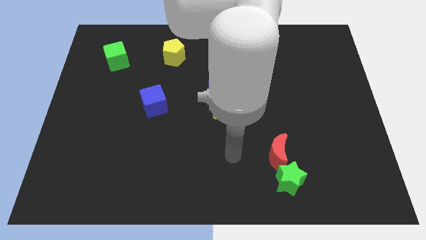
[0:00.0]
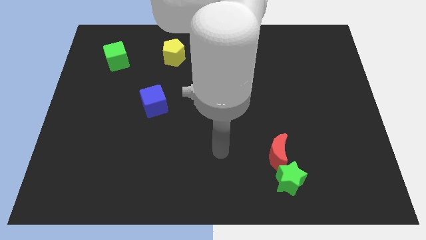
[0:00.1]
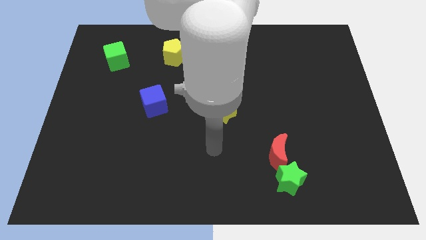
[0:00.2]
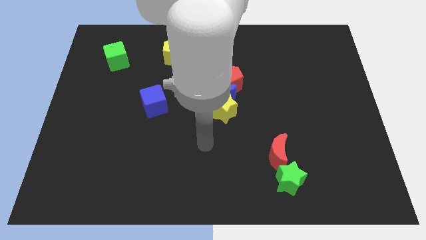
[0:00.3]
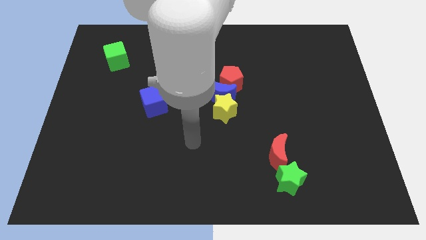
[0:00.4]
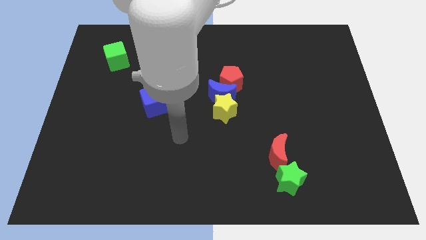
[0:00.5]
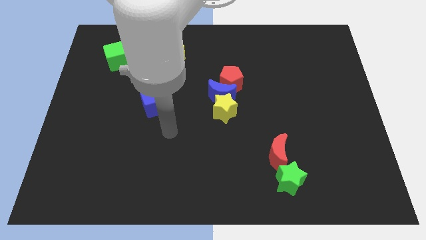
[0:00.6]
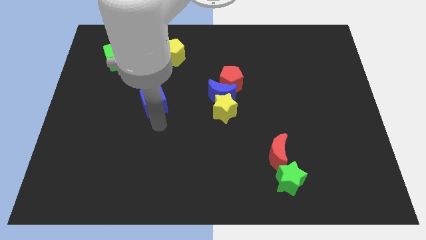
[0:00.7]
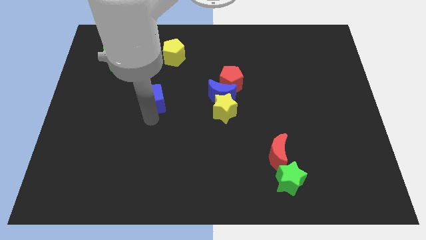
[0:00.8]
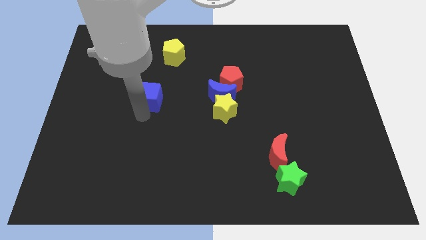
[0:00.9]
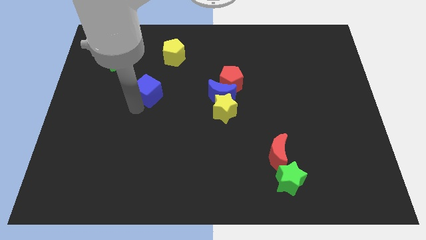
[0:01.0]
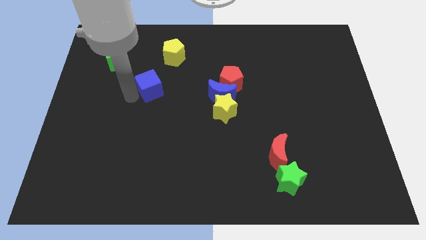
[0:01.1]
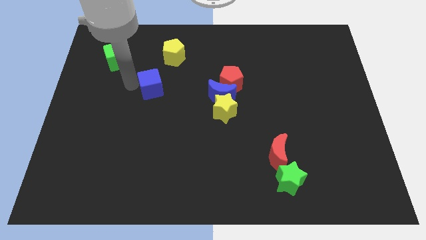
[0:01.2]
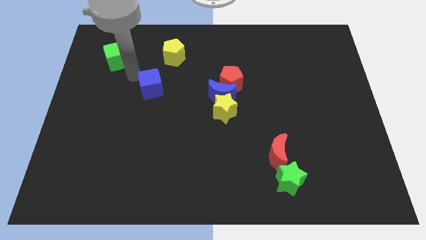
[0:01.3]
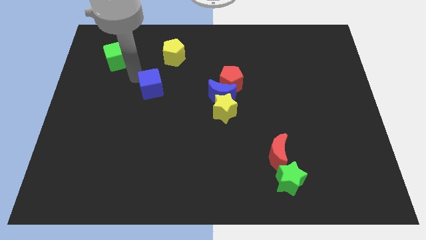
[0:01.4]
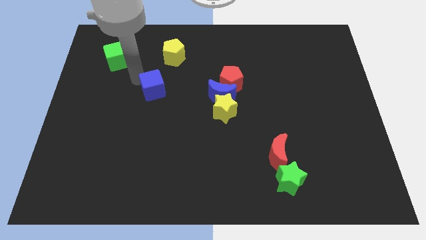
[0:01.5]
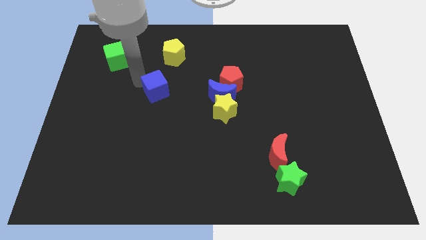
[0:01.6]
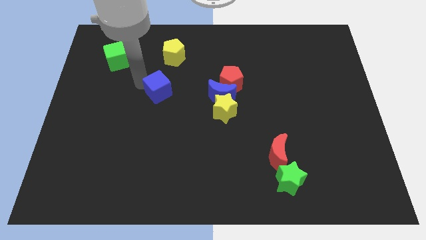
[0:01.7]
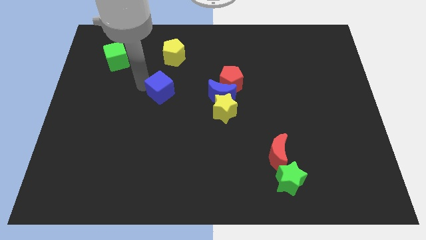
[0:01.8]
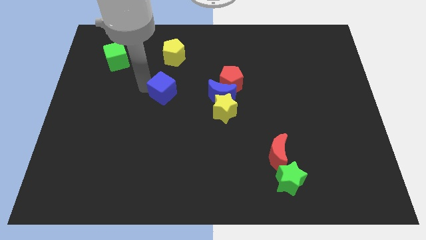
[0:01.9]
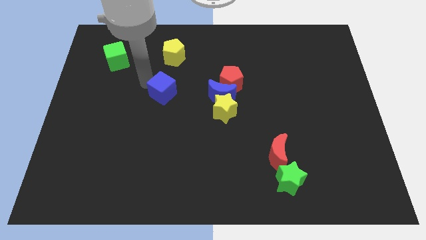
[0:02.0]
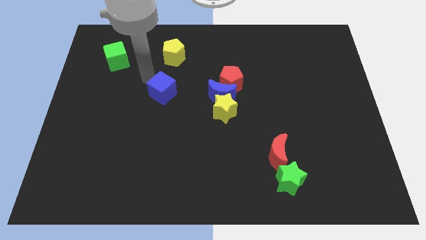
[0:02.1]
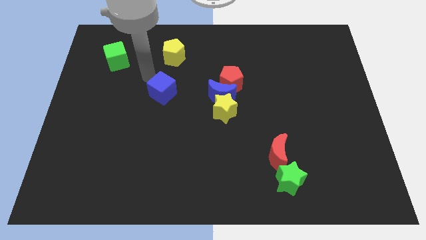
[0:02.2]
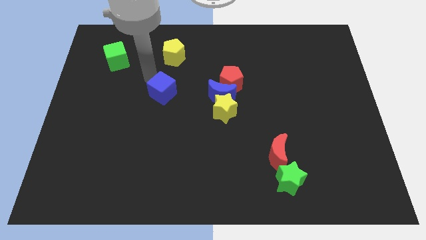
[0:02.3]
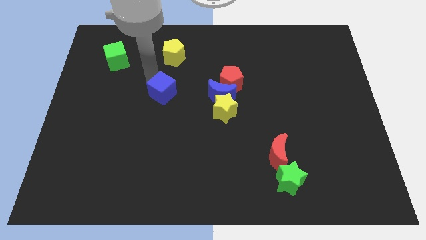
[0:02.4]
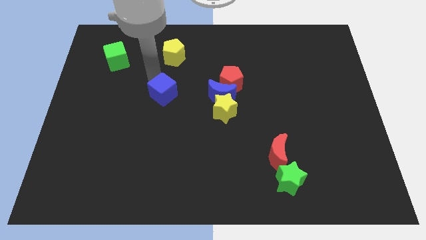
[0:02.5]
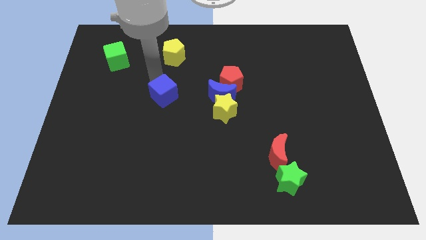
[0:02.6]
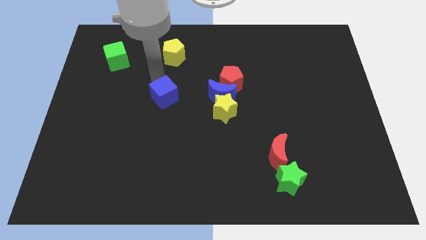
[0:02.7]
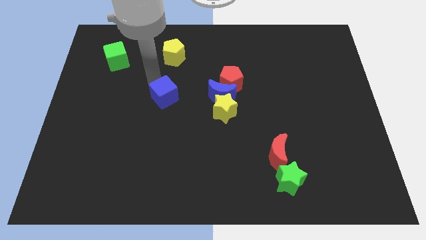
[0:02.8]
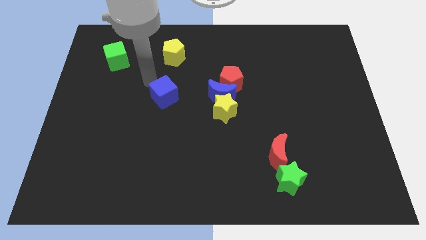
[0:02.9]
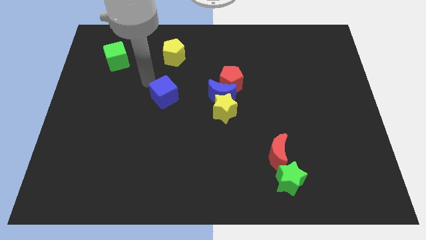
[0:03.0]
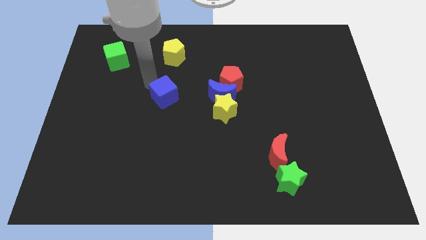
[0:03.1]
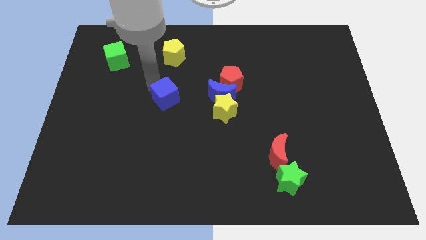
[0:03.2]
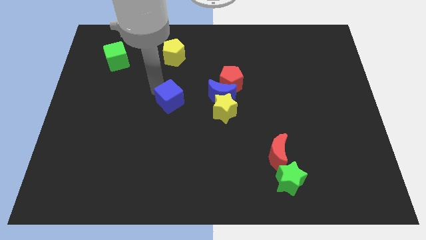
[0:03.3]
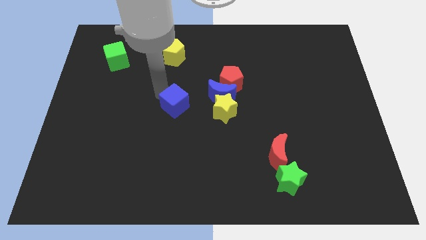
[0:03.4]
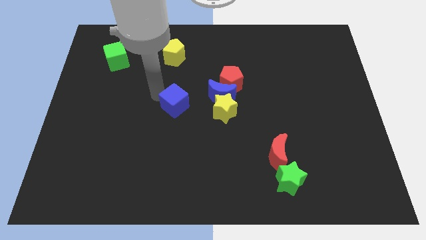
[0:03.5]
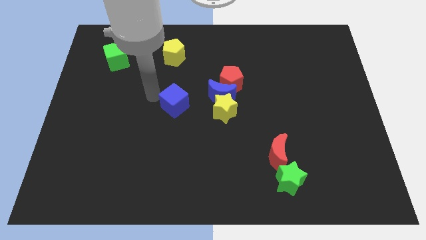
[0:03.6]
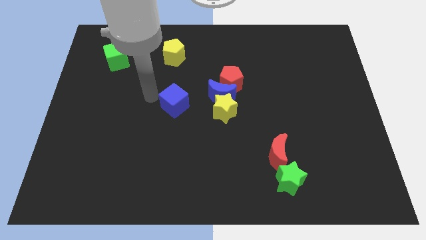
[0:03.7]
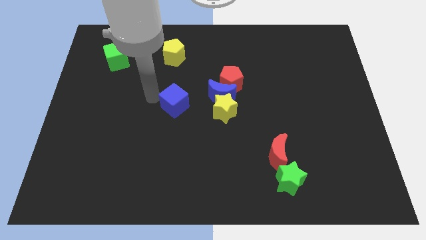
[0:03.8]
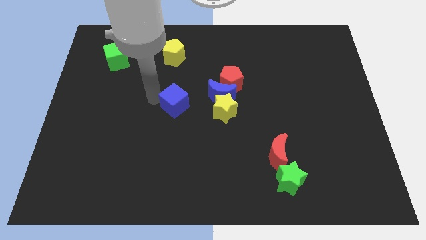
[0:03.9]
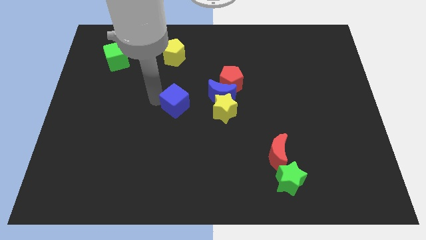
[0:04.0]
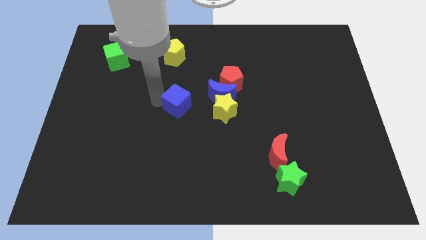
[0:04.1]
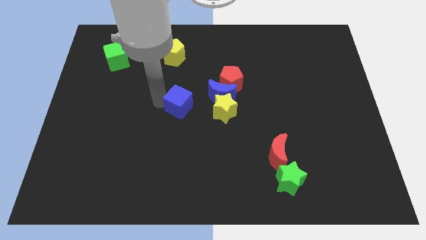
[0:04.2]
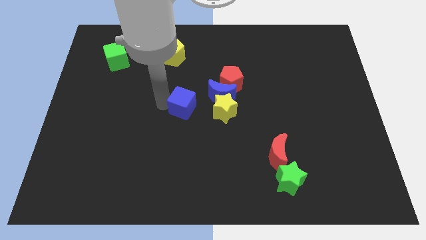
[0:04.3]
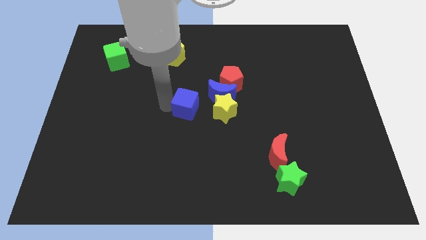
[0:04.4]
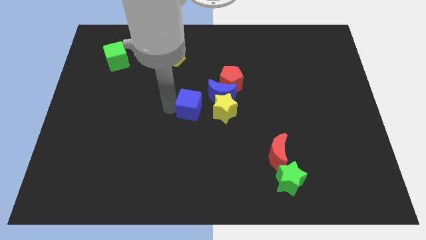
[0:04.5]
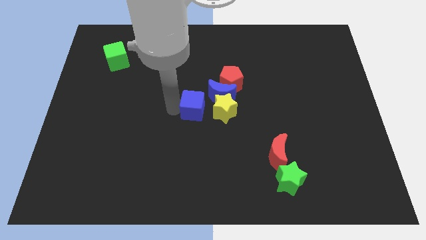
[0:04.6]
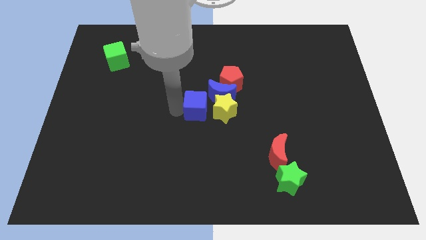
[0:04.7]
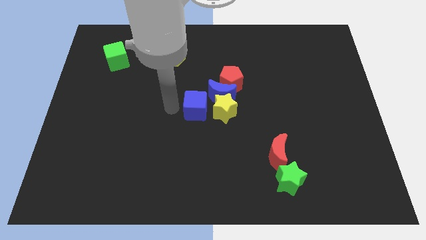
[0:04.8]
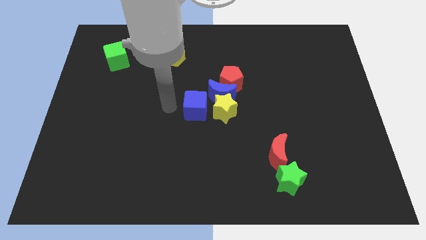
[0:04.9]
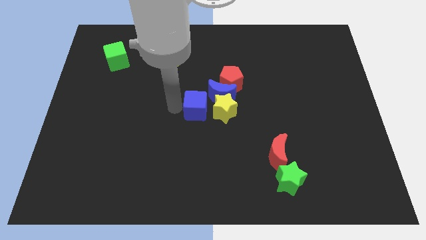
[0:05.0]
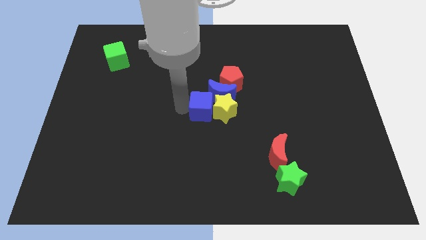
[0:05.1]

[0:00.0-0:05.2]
slide the blue cube to the yellow star

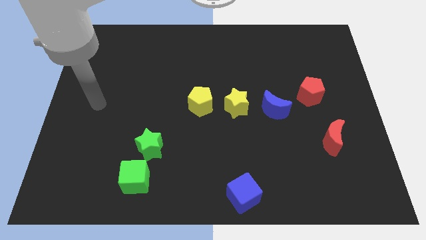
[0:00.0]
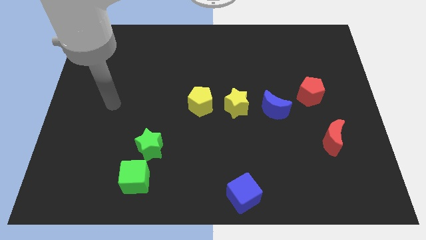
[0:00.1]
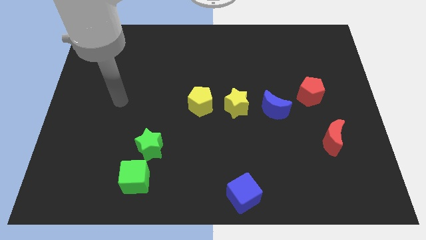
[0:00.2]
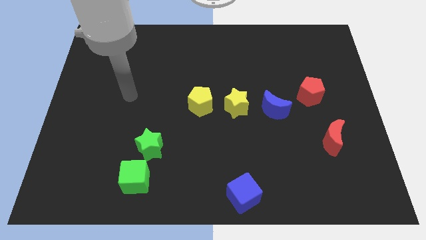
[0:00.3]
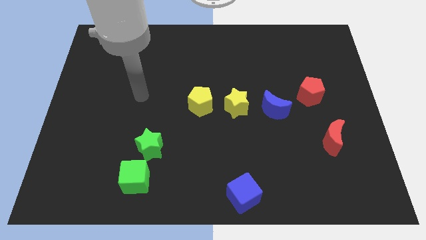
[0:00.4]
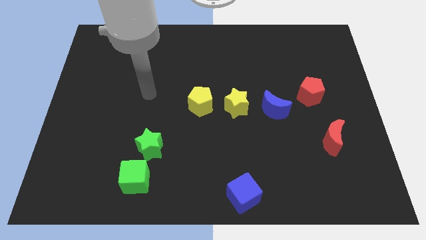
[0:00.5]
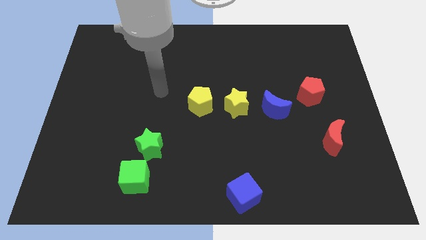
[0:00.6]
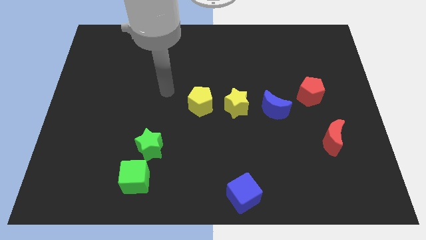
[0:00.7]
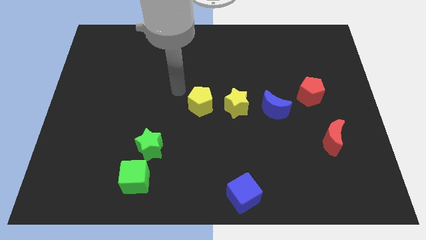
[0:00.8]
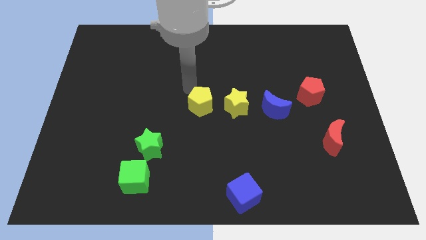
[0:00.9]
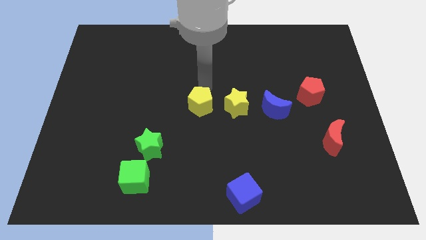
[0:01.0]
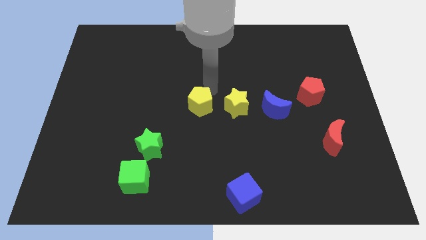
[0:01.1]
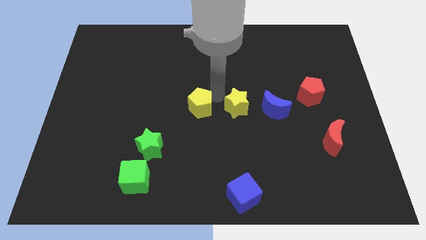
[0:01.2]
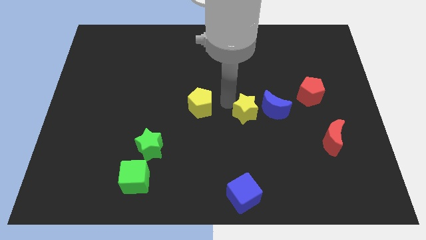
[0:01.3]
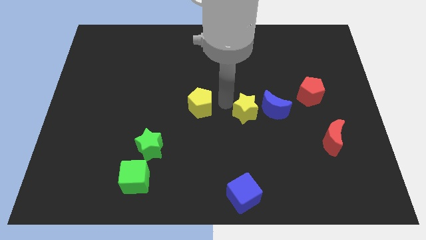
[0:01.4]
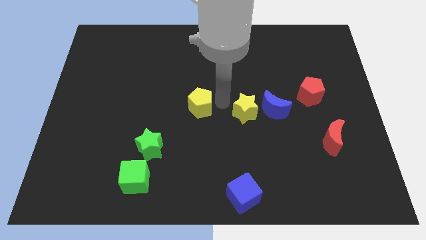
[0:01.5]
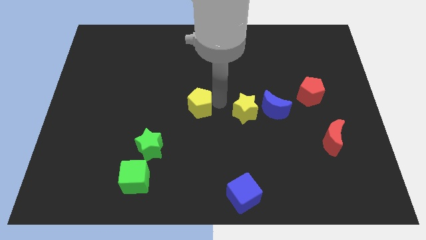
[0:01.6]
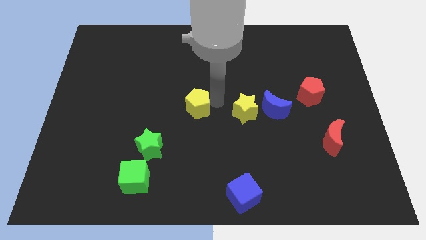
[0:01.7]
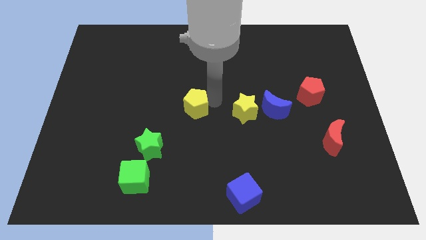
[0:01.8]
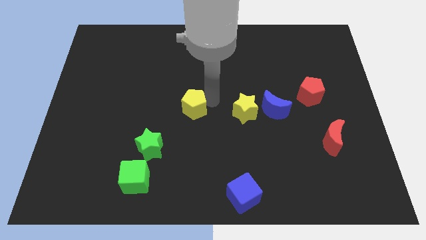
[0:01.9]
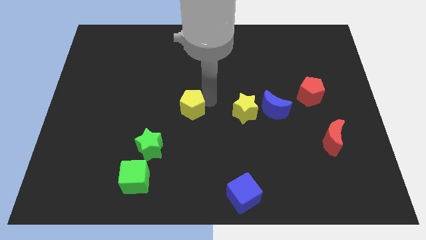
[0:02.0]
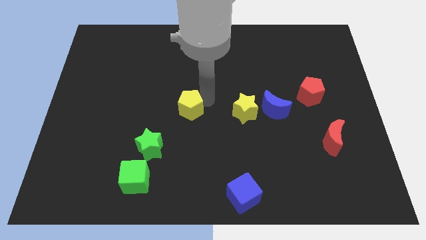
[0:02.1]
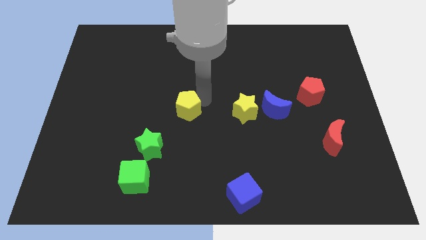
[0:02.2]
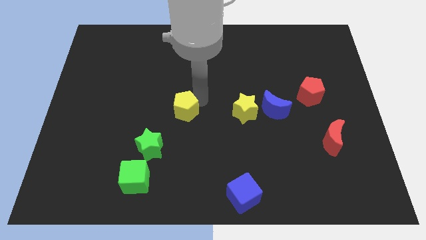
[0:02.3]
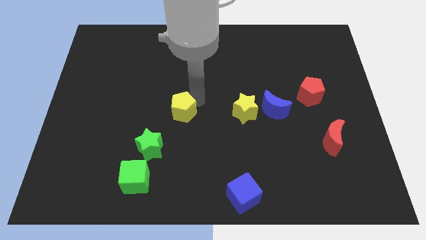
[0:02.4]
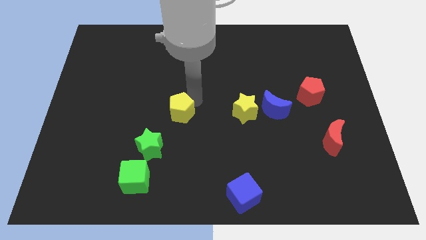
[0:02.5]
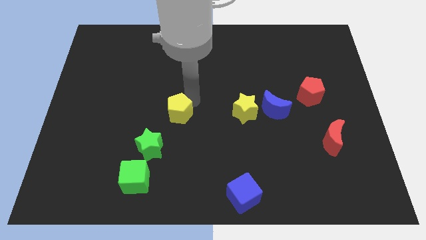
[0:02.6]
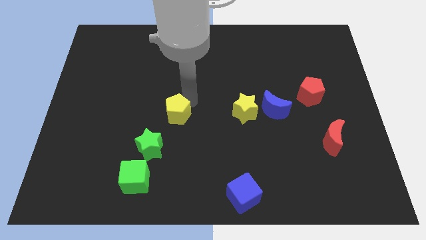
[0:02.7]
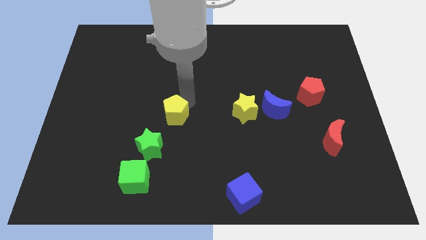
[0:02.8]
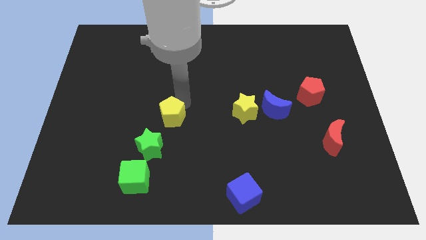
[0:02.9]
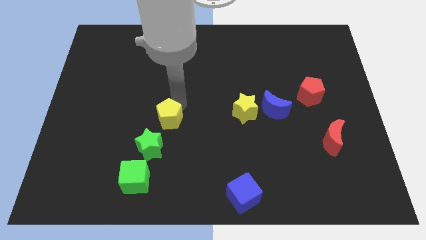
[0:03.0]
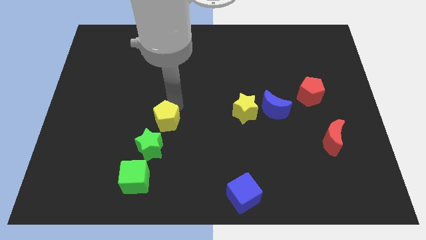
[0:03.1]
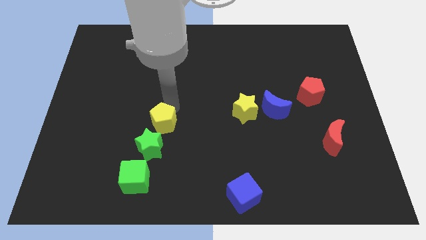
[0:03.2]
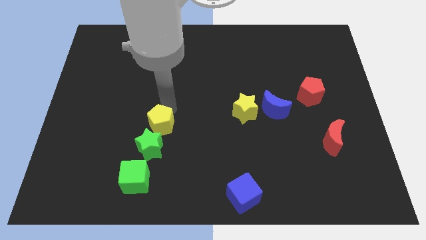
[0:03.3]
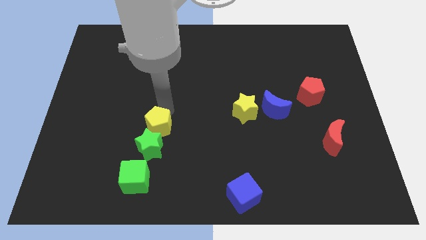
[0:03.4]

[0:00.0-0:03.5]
slide the yellow pentagon to the green star
